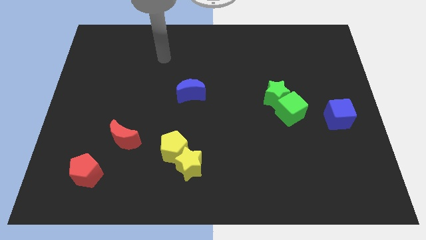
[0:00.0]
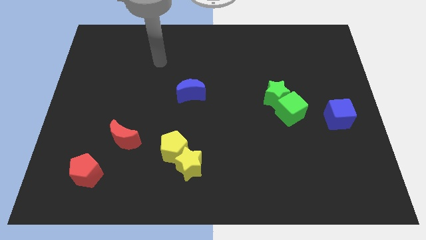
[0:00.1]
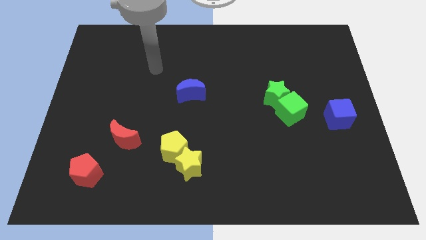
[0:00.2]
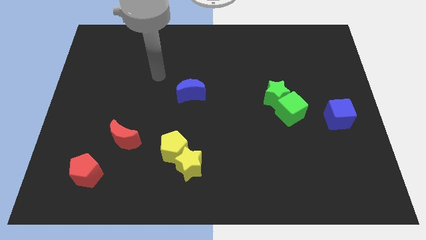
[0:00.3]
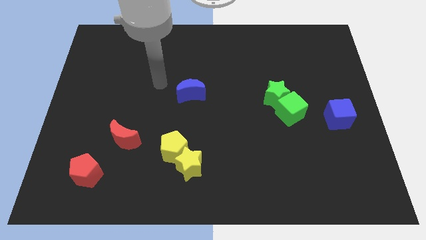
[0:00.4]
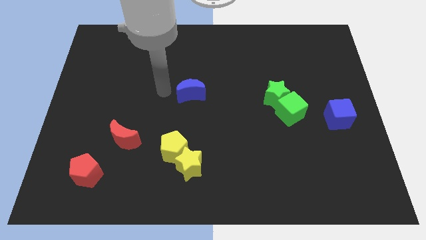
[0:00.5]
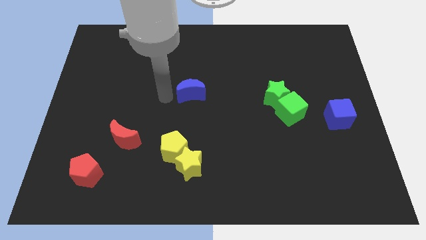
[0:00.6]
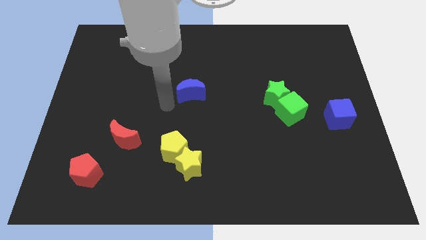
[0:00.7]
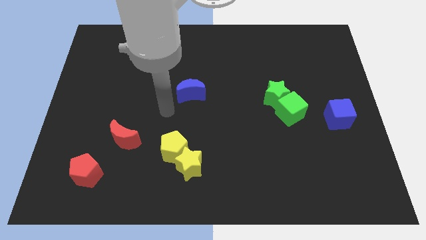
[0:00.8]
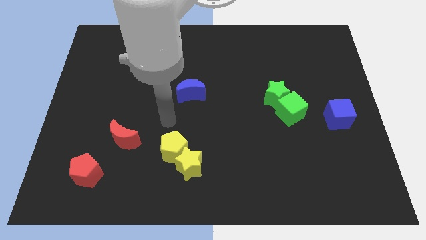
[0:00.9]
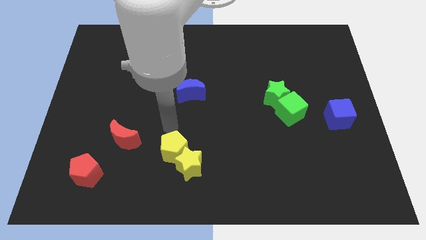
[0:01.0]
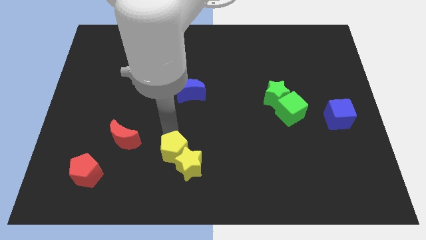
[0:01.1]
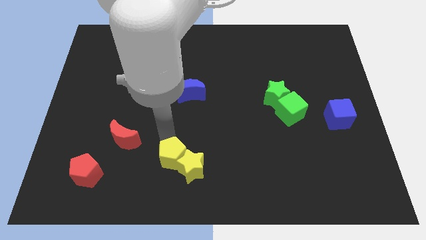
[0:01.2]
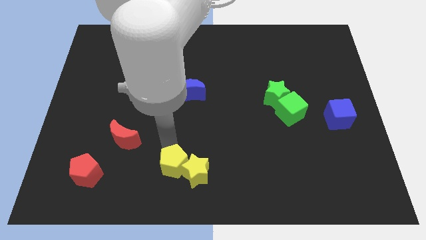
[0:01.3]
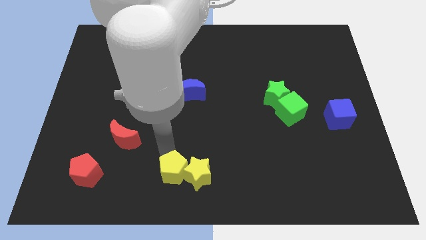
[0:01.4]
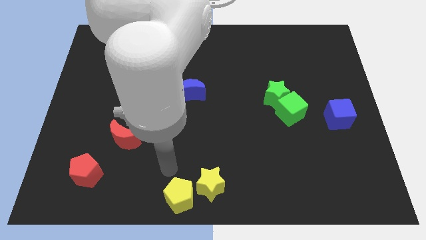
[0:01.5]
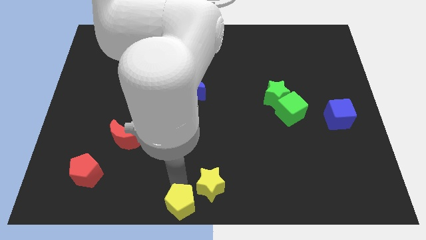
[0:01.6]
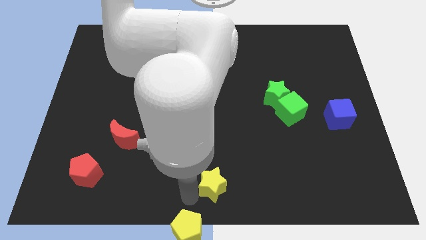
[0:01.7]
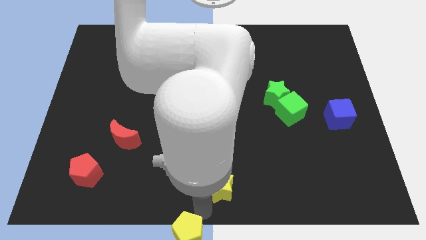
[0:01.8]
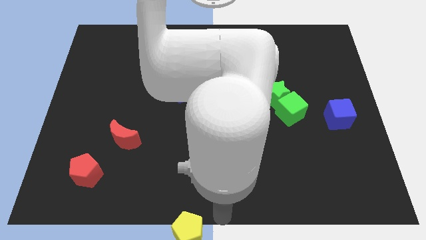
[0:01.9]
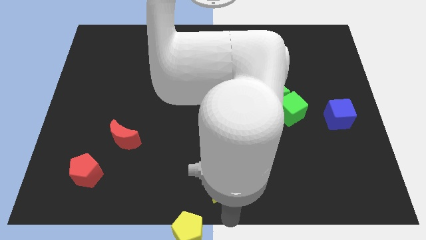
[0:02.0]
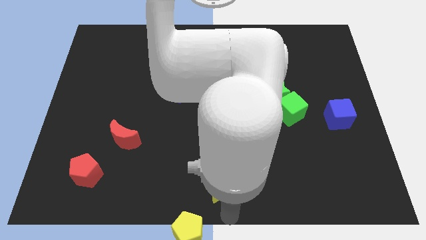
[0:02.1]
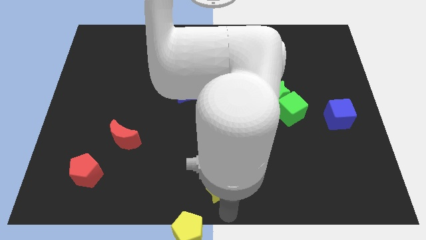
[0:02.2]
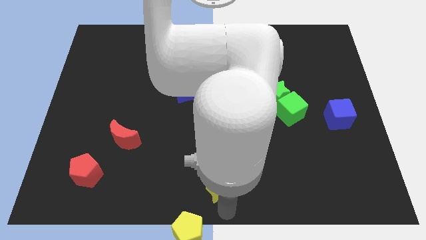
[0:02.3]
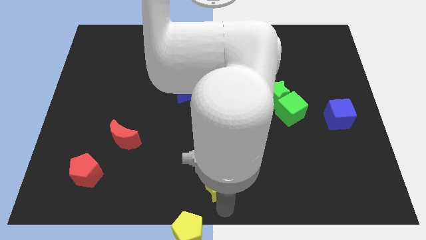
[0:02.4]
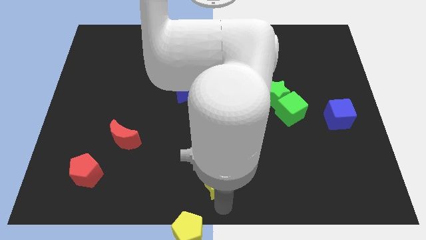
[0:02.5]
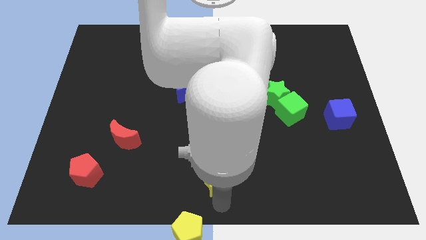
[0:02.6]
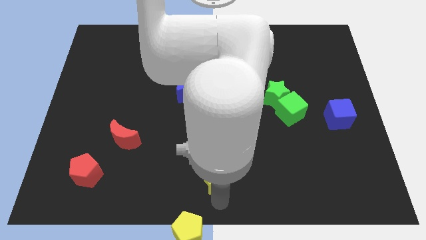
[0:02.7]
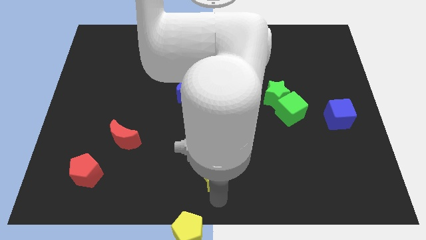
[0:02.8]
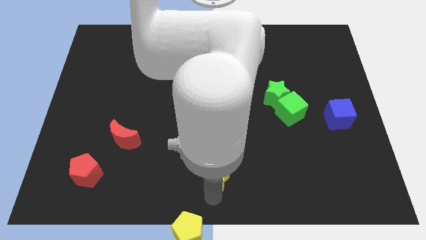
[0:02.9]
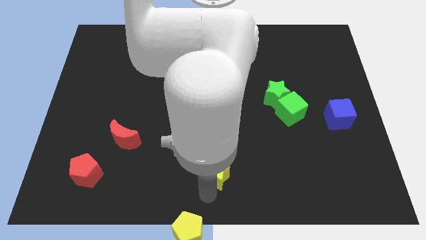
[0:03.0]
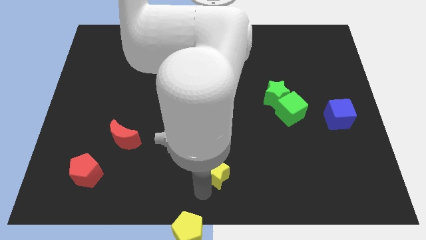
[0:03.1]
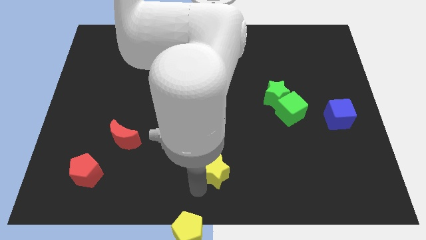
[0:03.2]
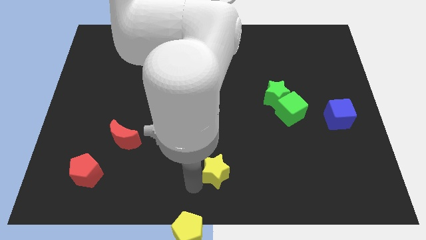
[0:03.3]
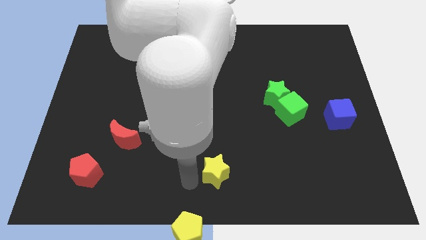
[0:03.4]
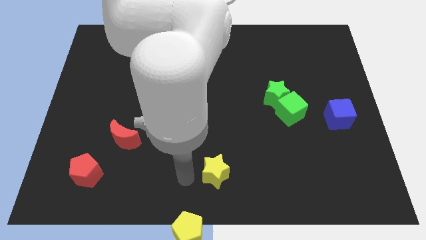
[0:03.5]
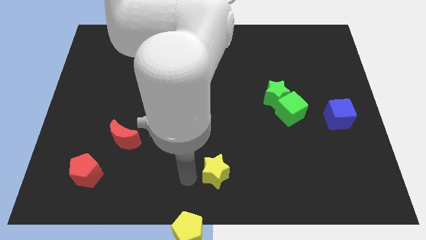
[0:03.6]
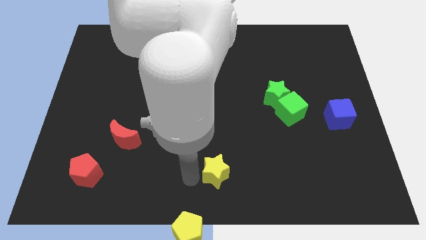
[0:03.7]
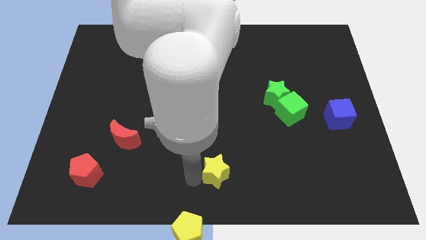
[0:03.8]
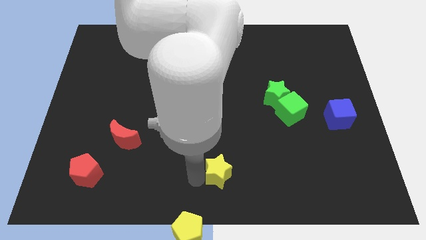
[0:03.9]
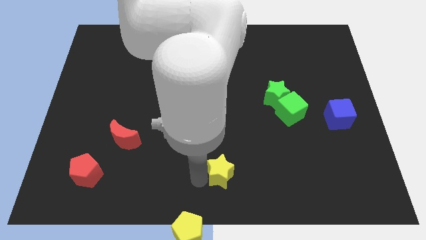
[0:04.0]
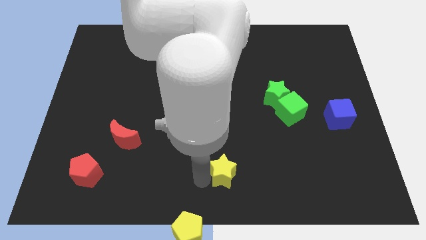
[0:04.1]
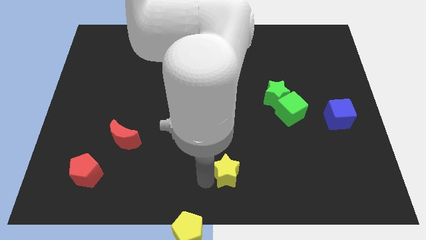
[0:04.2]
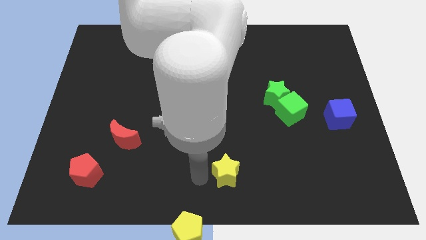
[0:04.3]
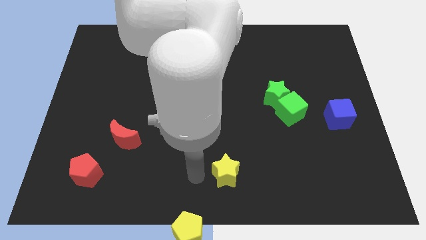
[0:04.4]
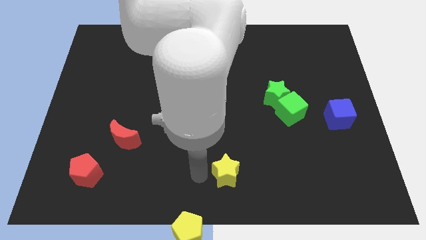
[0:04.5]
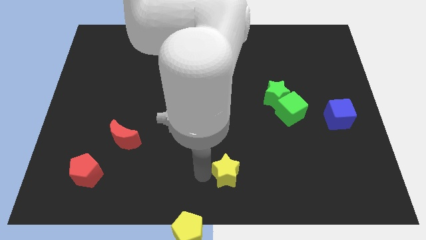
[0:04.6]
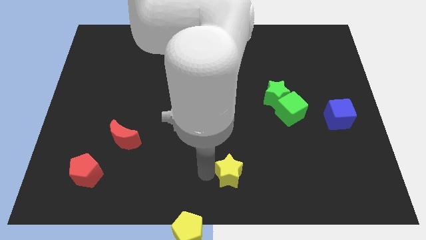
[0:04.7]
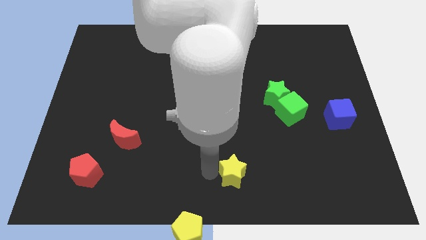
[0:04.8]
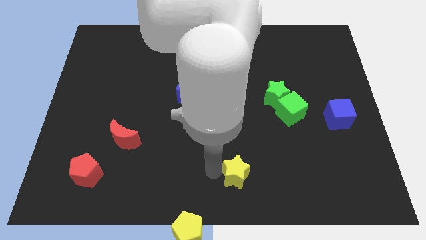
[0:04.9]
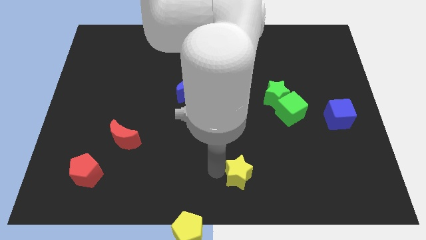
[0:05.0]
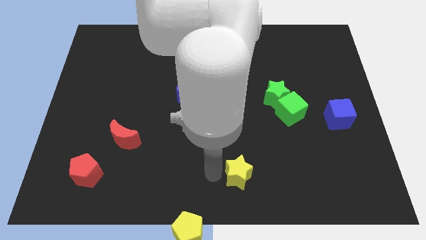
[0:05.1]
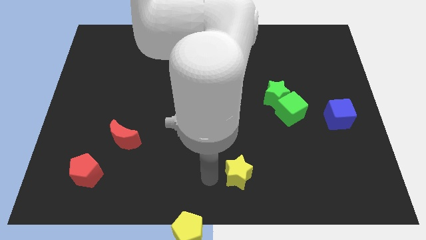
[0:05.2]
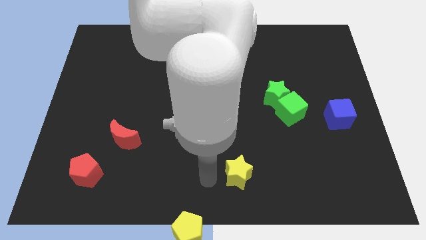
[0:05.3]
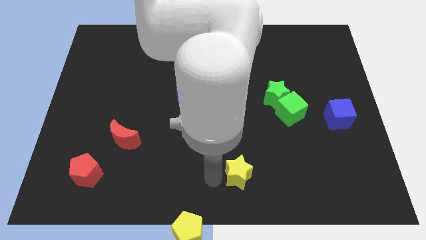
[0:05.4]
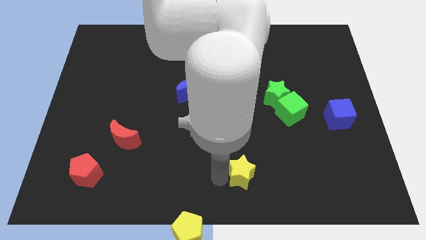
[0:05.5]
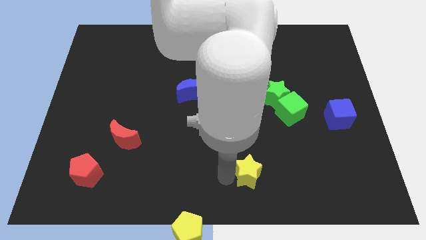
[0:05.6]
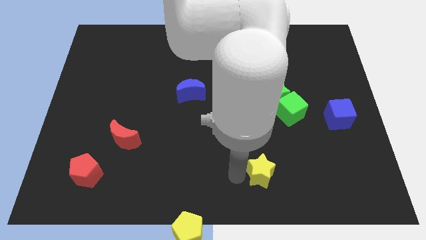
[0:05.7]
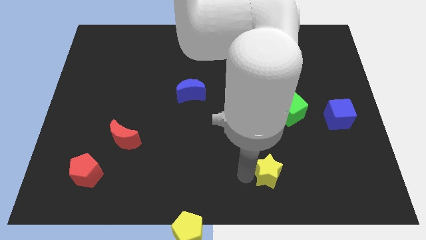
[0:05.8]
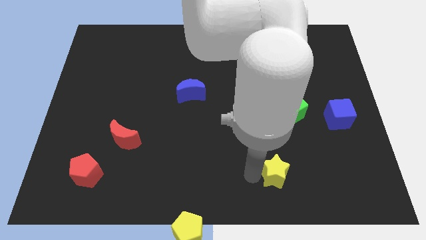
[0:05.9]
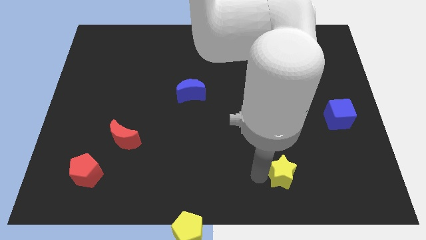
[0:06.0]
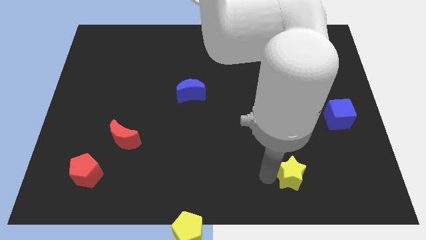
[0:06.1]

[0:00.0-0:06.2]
move the yellow star right

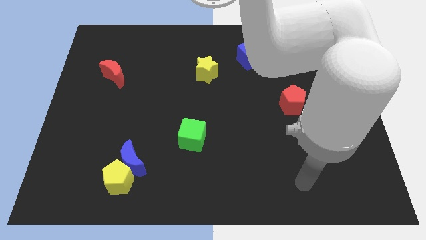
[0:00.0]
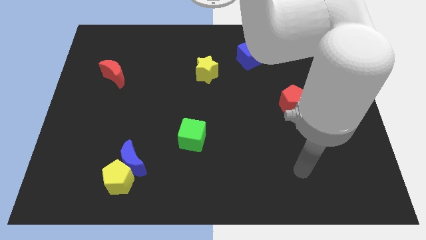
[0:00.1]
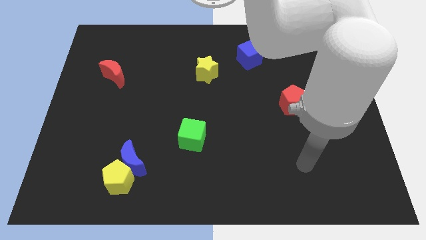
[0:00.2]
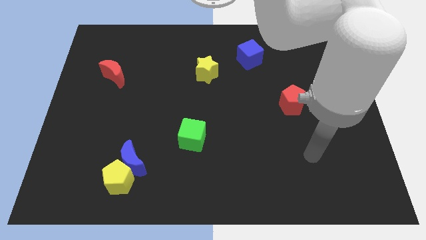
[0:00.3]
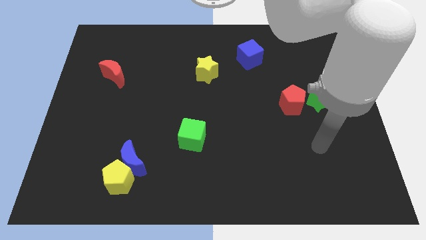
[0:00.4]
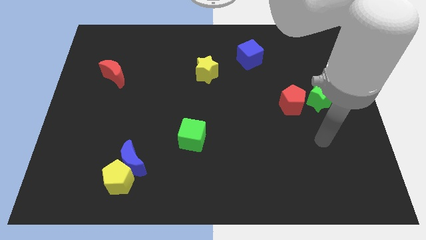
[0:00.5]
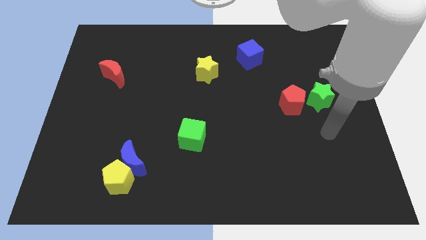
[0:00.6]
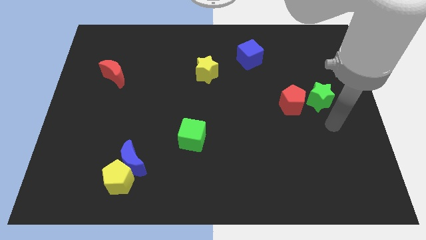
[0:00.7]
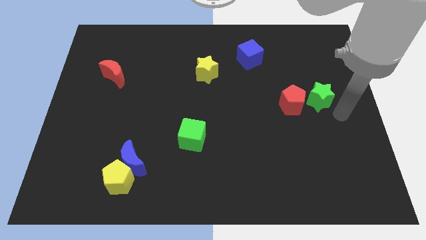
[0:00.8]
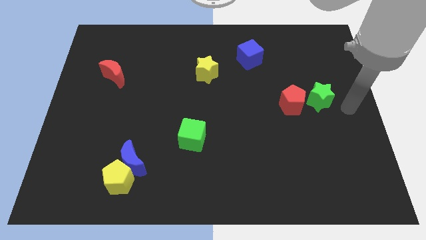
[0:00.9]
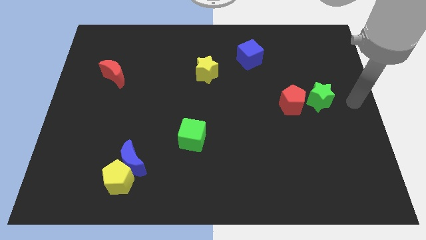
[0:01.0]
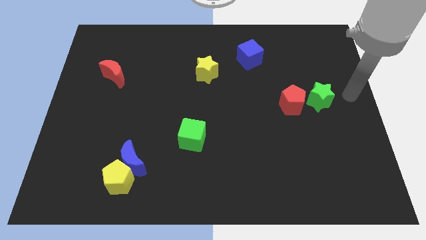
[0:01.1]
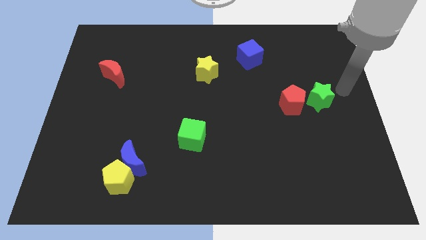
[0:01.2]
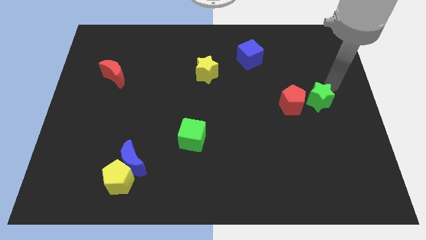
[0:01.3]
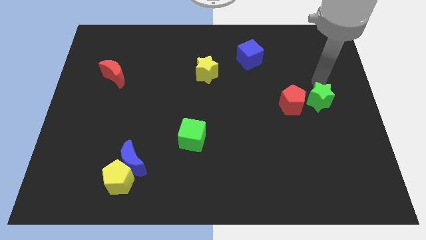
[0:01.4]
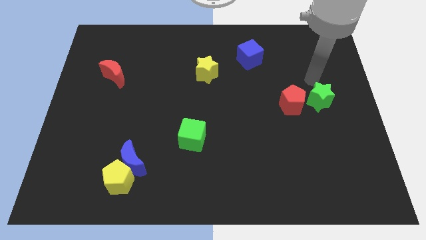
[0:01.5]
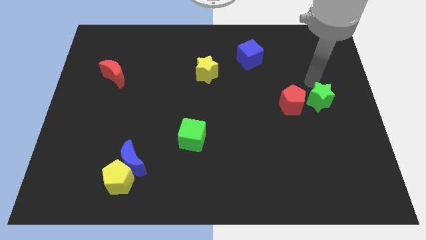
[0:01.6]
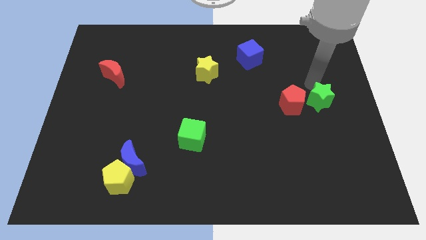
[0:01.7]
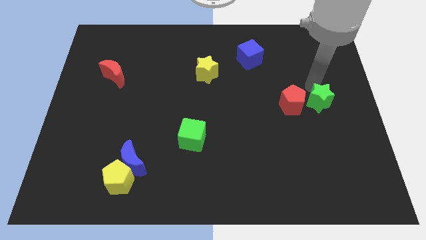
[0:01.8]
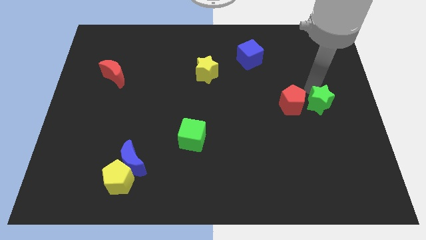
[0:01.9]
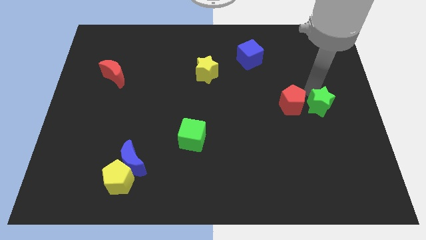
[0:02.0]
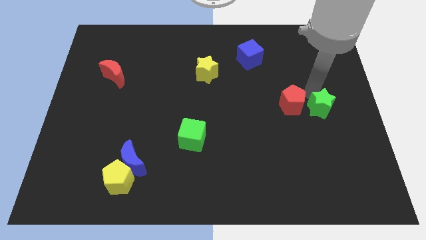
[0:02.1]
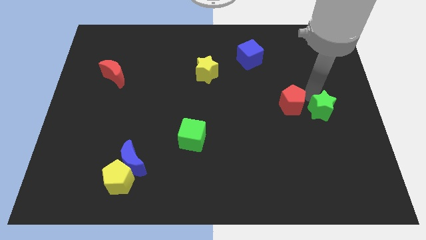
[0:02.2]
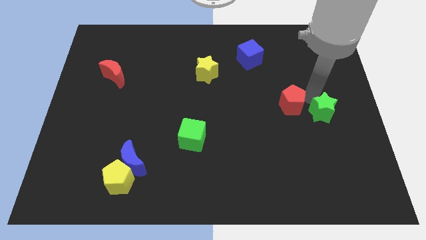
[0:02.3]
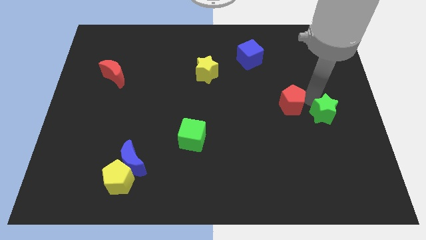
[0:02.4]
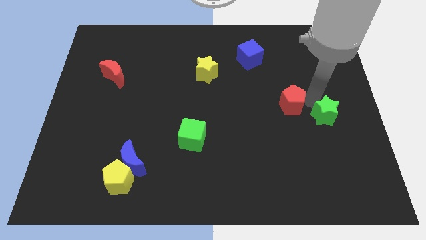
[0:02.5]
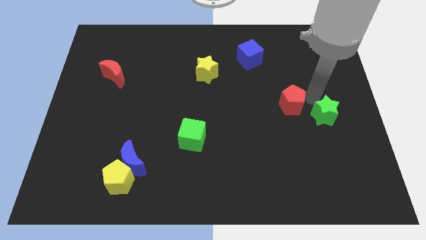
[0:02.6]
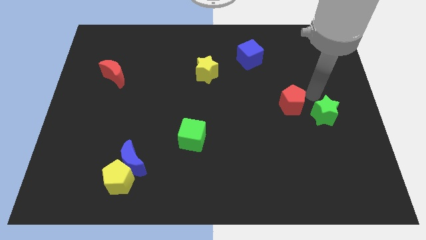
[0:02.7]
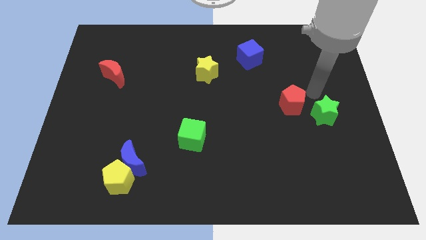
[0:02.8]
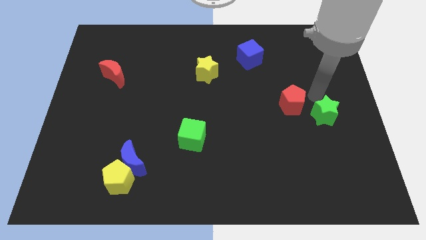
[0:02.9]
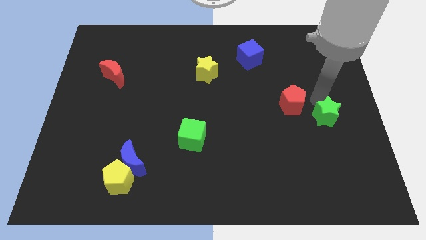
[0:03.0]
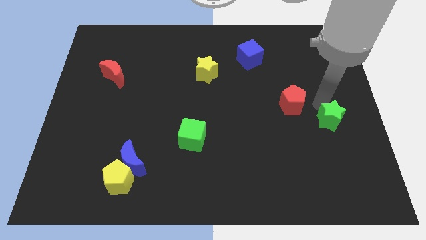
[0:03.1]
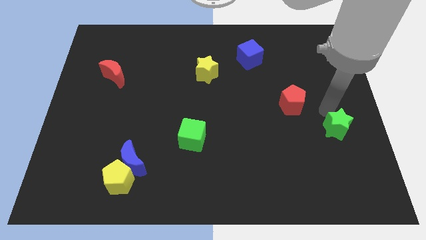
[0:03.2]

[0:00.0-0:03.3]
slightly push the green star downwards
